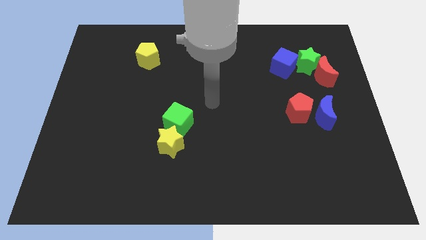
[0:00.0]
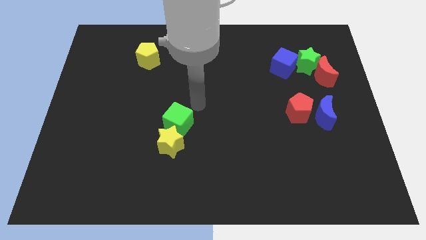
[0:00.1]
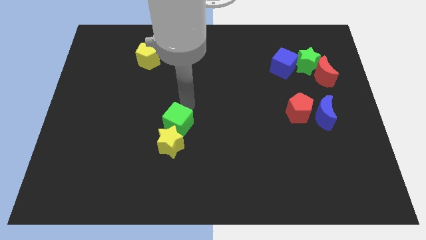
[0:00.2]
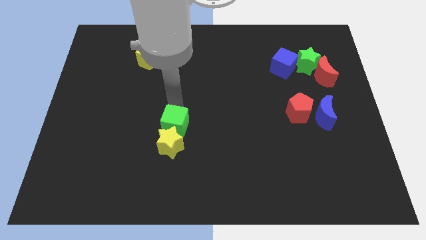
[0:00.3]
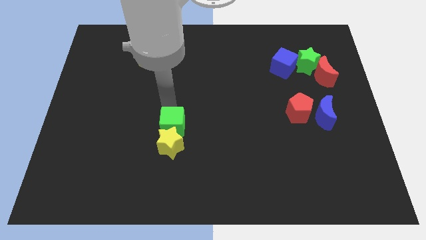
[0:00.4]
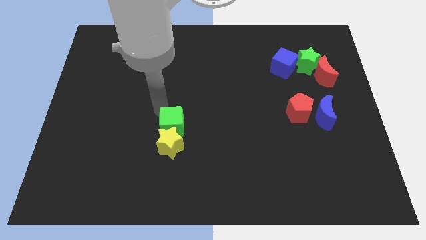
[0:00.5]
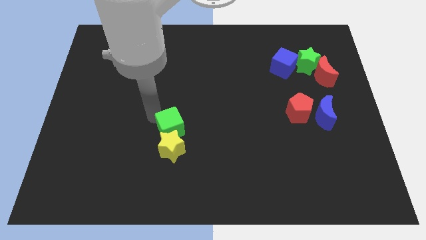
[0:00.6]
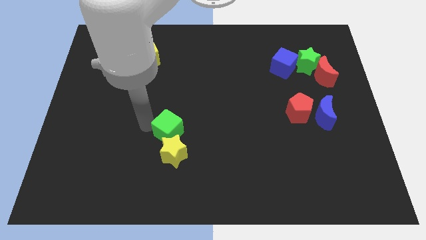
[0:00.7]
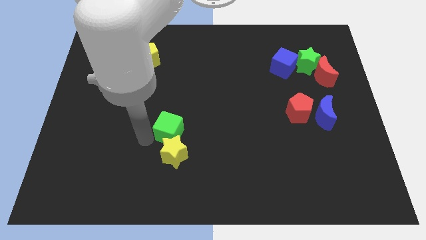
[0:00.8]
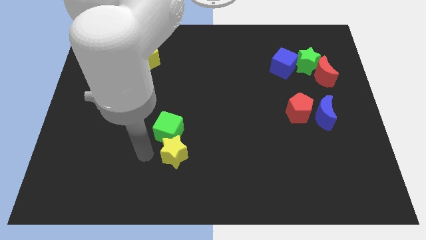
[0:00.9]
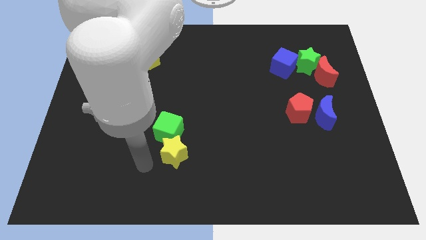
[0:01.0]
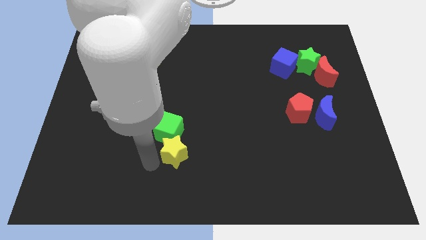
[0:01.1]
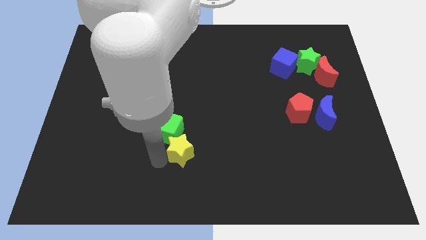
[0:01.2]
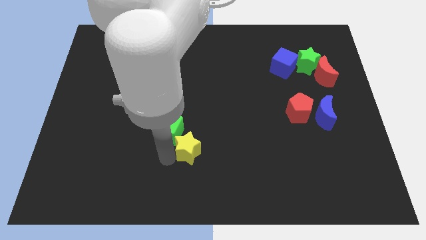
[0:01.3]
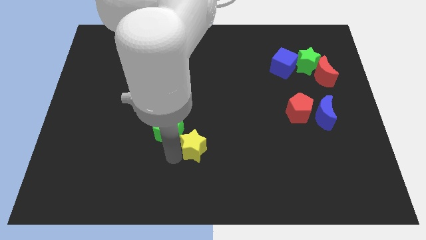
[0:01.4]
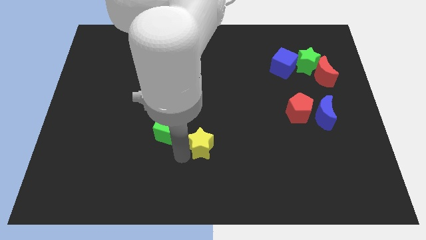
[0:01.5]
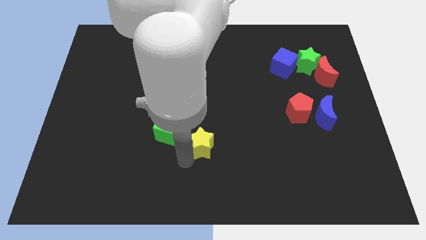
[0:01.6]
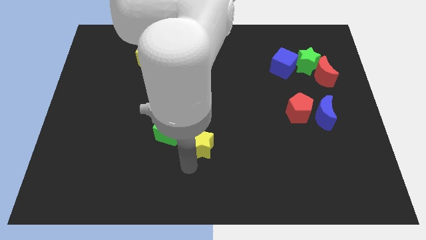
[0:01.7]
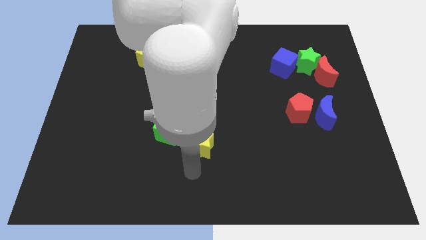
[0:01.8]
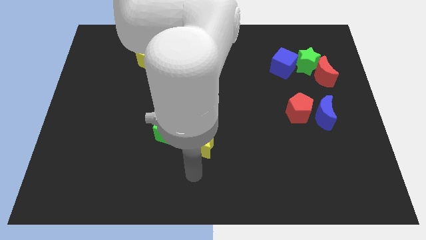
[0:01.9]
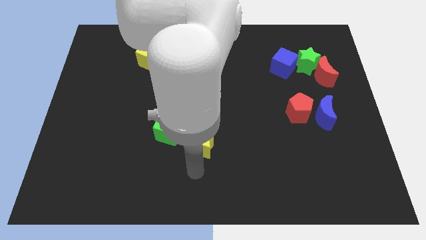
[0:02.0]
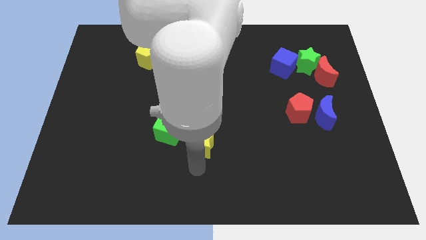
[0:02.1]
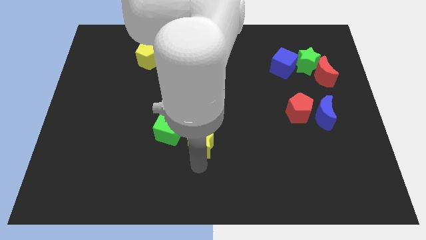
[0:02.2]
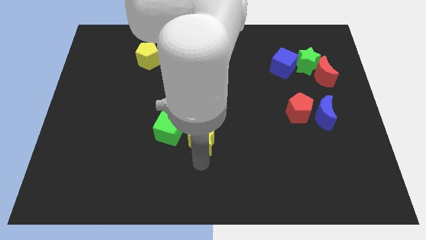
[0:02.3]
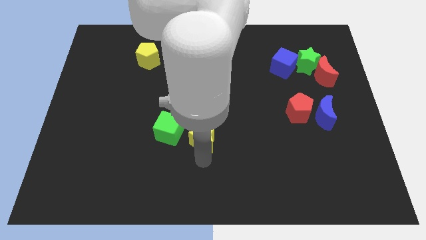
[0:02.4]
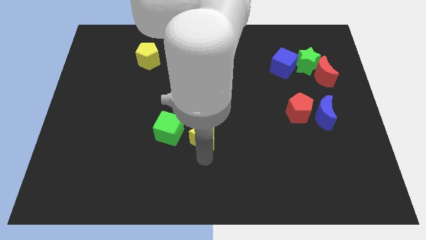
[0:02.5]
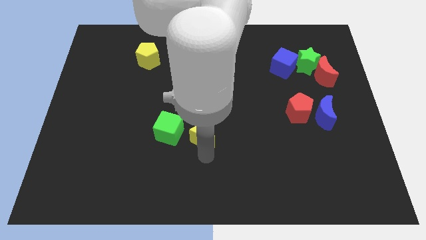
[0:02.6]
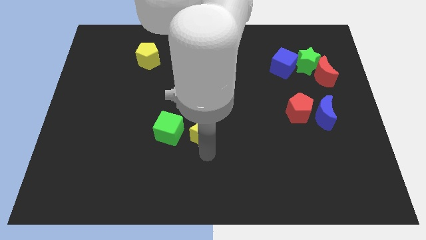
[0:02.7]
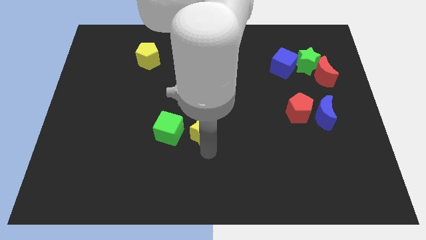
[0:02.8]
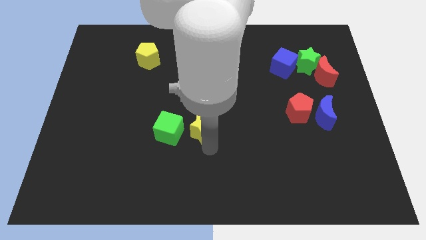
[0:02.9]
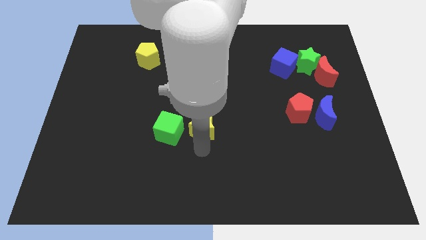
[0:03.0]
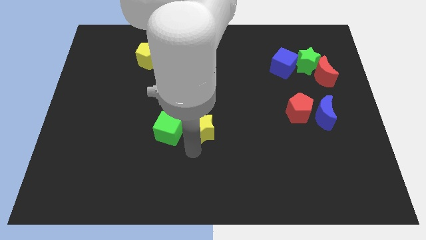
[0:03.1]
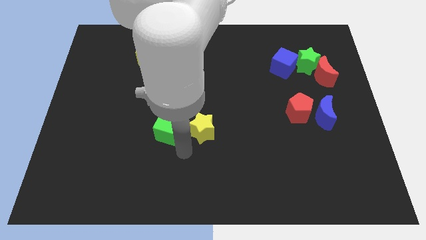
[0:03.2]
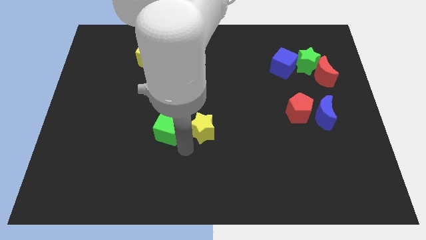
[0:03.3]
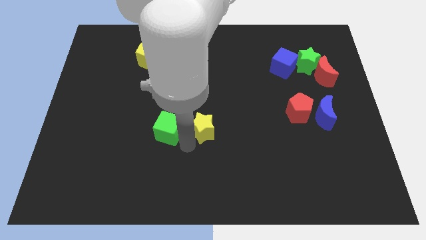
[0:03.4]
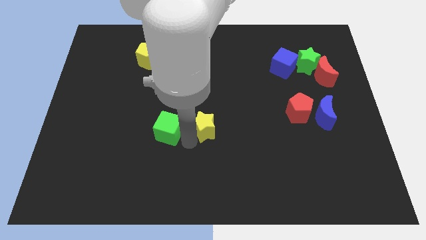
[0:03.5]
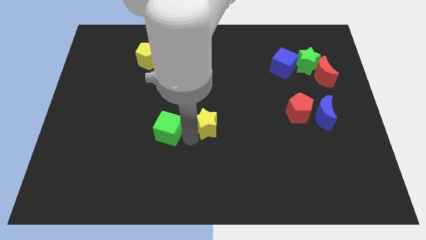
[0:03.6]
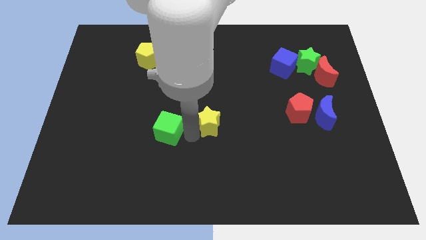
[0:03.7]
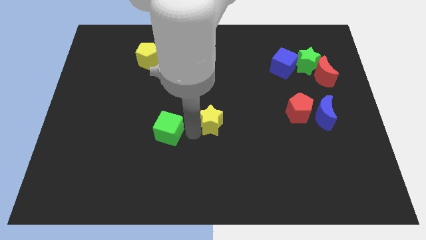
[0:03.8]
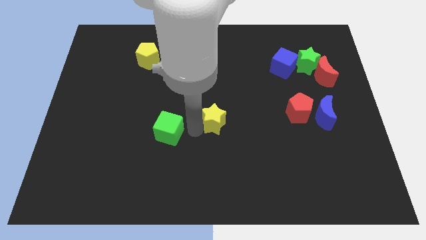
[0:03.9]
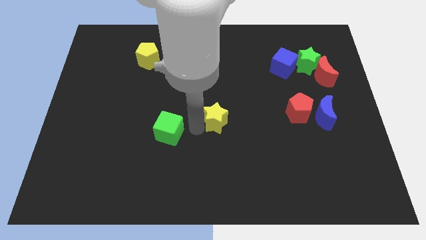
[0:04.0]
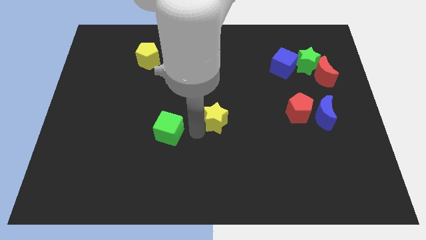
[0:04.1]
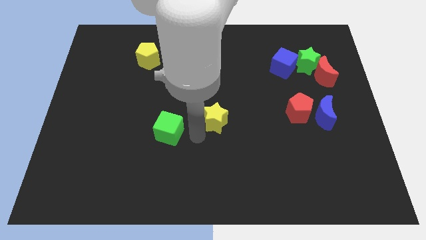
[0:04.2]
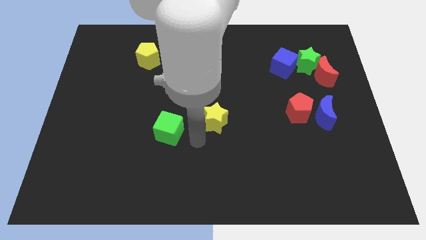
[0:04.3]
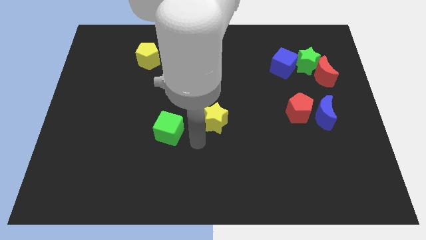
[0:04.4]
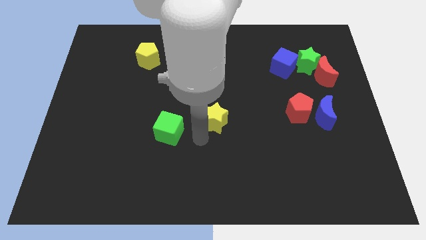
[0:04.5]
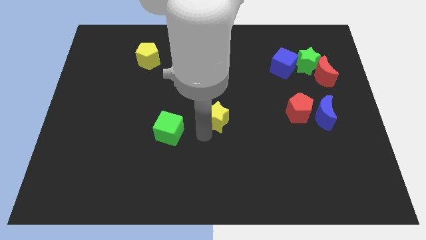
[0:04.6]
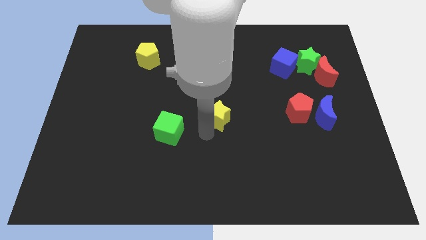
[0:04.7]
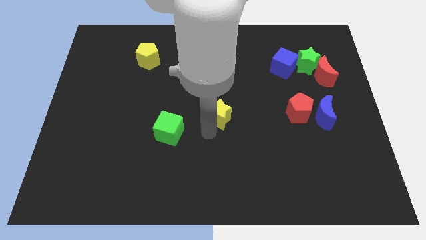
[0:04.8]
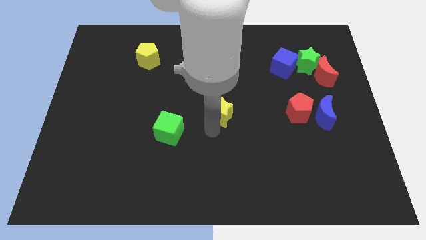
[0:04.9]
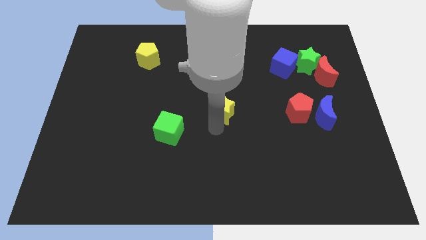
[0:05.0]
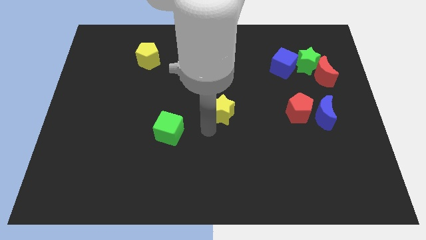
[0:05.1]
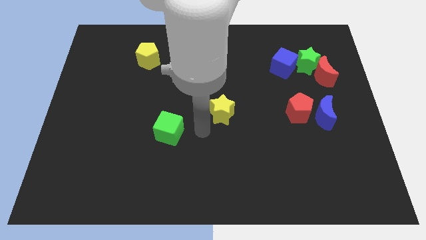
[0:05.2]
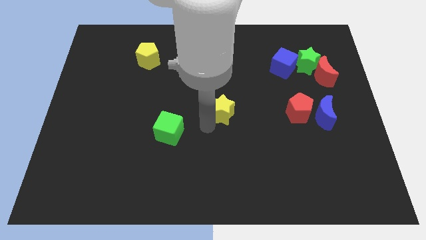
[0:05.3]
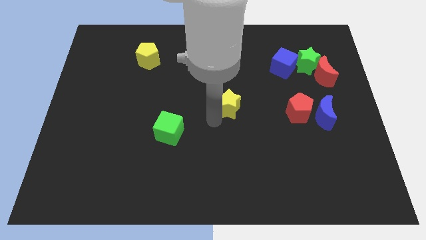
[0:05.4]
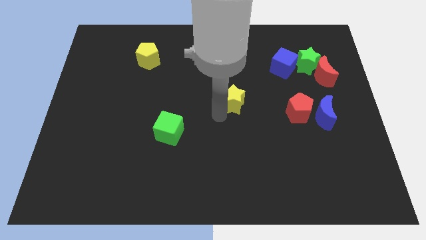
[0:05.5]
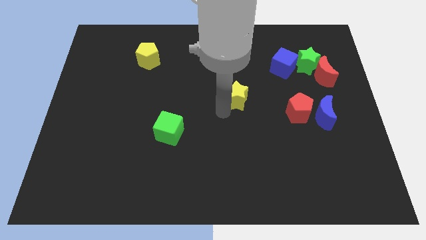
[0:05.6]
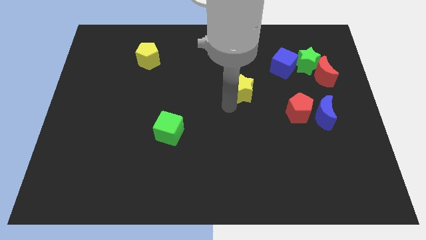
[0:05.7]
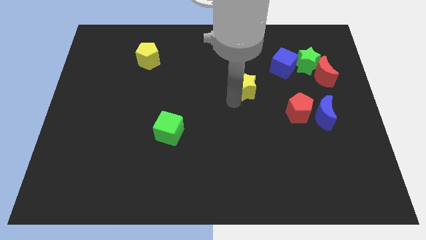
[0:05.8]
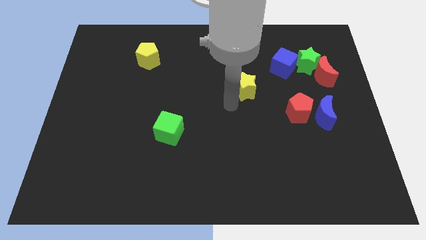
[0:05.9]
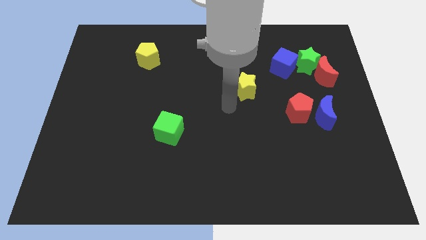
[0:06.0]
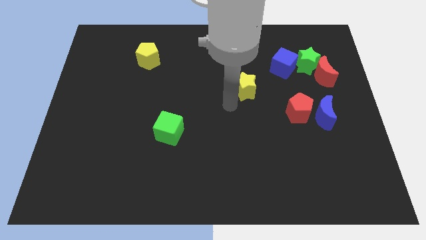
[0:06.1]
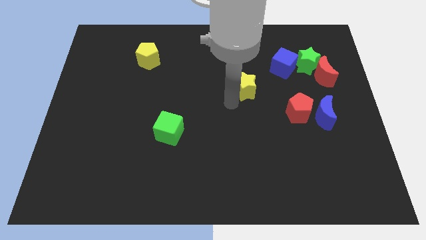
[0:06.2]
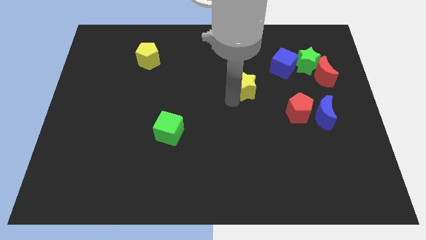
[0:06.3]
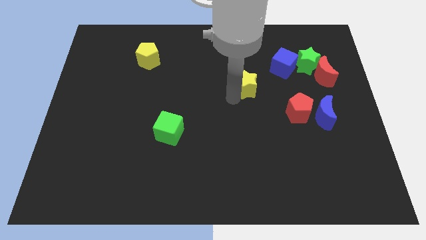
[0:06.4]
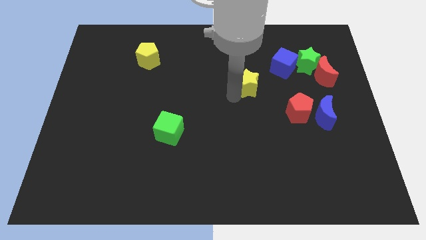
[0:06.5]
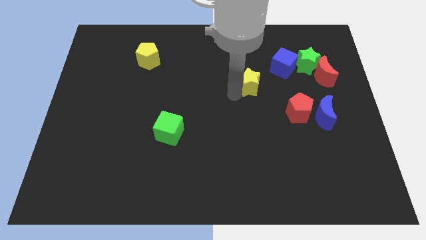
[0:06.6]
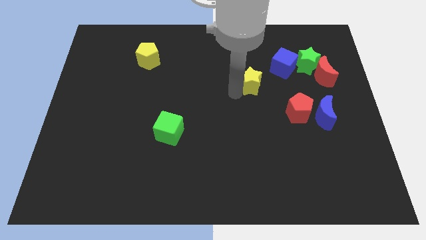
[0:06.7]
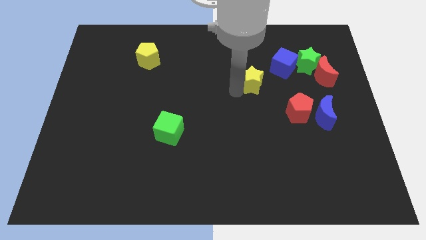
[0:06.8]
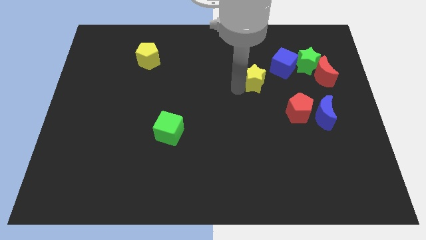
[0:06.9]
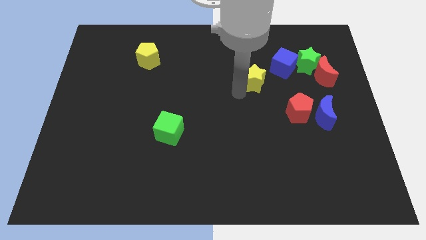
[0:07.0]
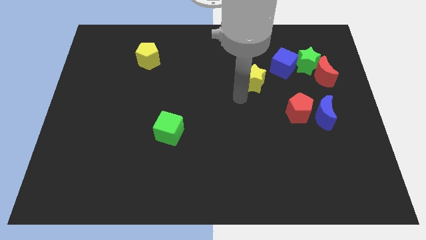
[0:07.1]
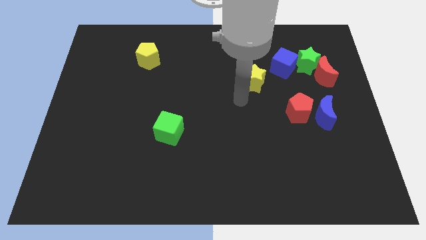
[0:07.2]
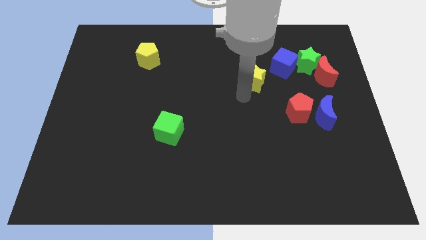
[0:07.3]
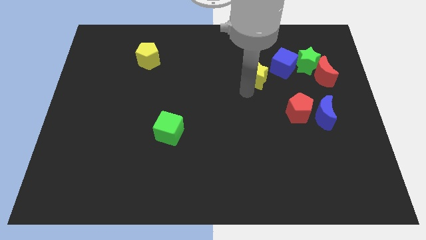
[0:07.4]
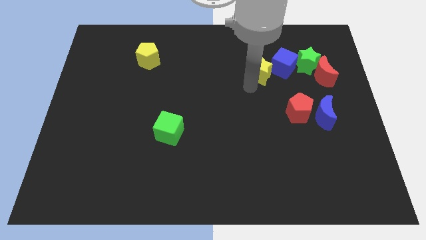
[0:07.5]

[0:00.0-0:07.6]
move the yellow star just left of the green star
